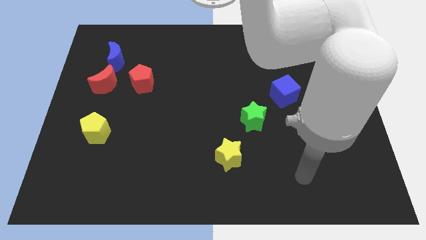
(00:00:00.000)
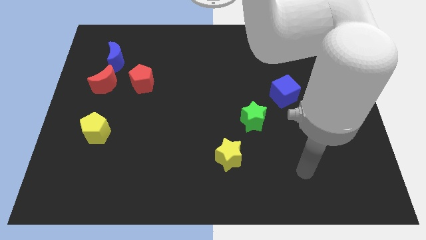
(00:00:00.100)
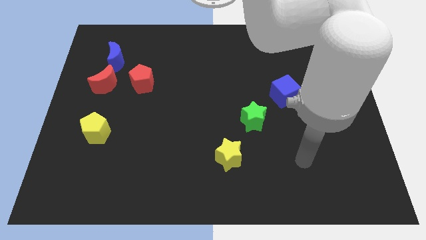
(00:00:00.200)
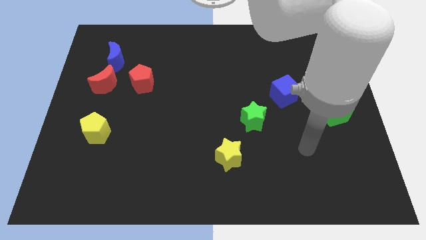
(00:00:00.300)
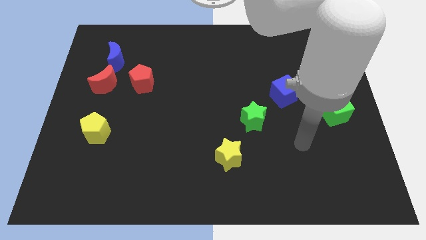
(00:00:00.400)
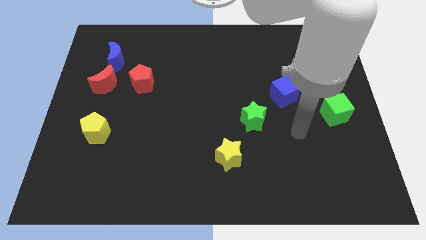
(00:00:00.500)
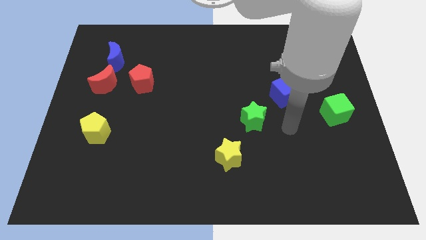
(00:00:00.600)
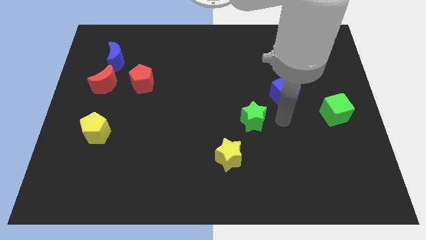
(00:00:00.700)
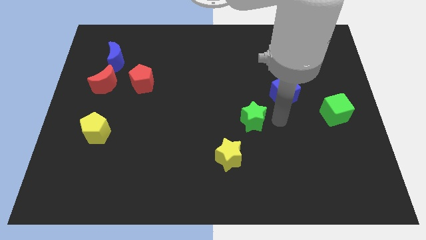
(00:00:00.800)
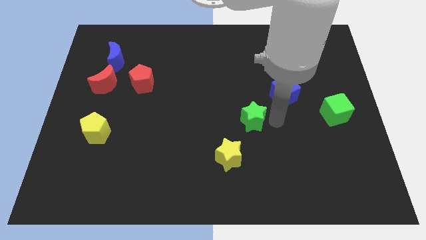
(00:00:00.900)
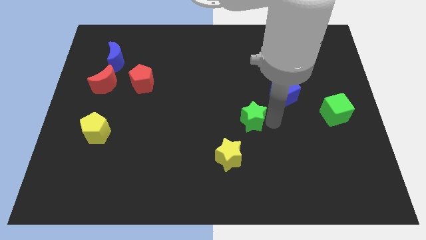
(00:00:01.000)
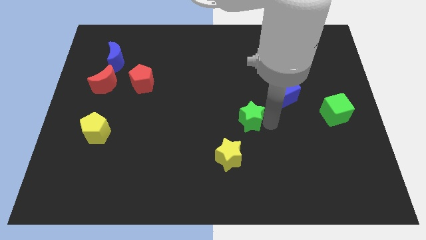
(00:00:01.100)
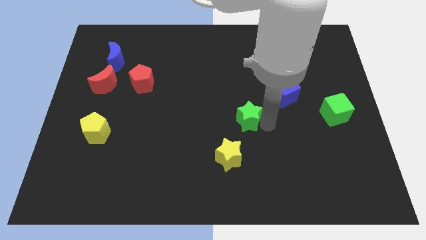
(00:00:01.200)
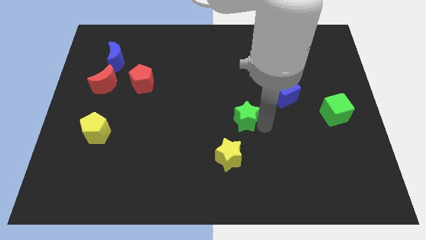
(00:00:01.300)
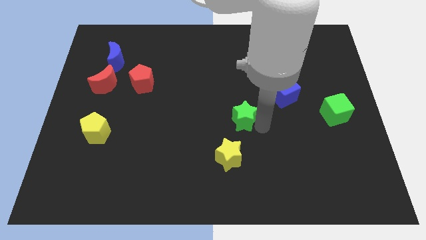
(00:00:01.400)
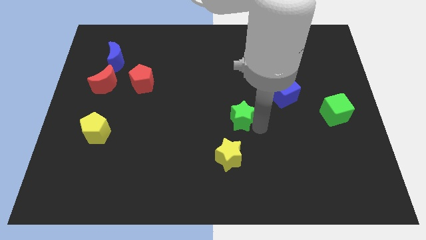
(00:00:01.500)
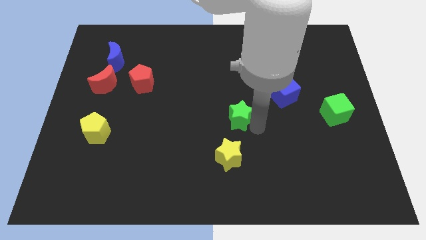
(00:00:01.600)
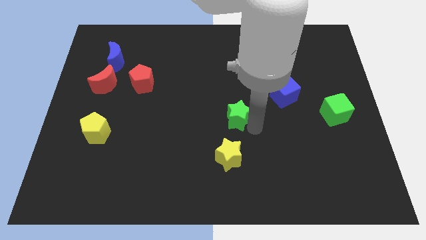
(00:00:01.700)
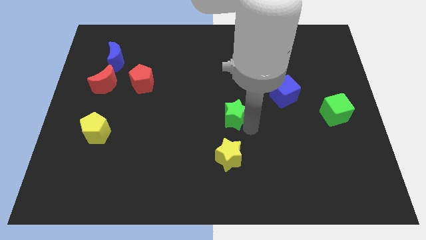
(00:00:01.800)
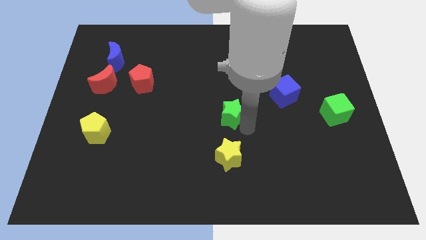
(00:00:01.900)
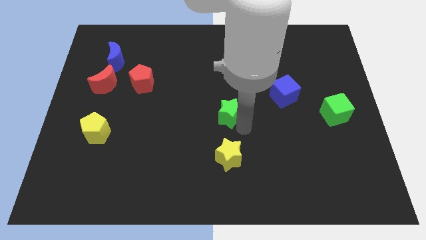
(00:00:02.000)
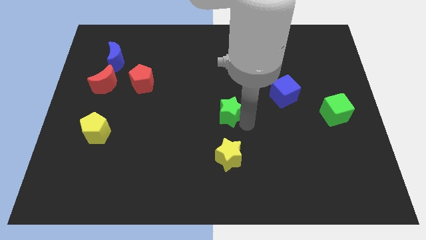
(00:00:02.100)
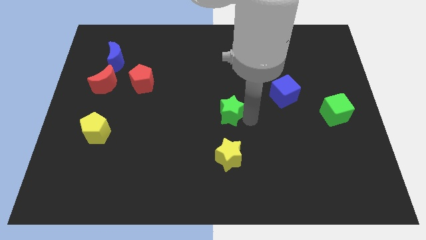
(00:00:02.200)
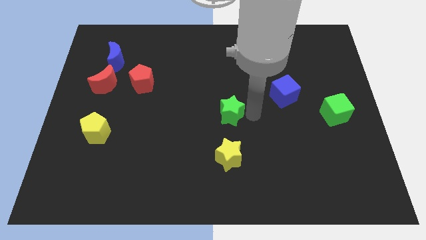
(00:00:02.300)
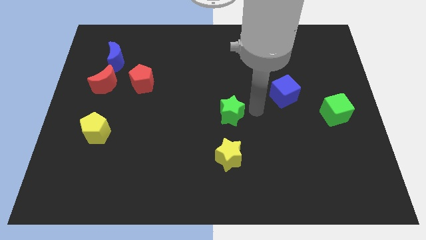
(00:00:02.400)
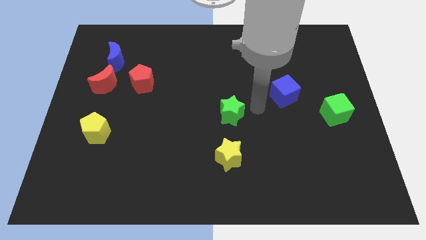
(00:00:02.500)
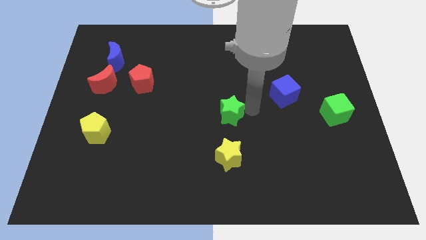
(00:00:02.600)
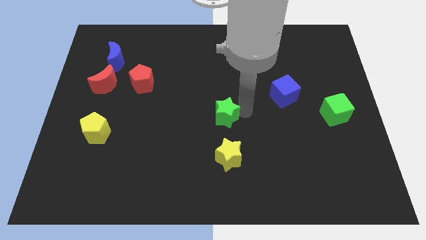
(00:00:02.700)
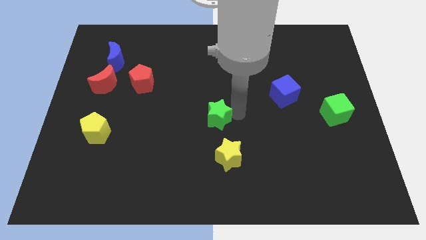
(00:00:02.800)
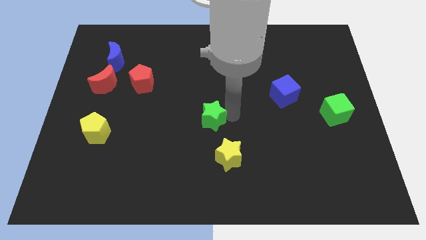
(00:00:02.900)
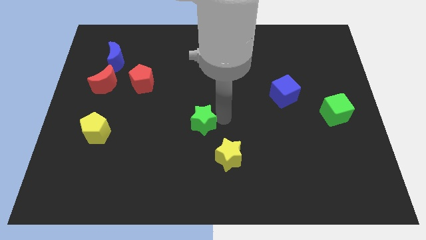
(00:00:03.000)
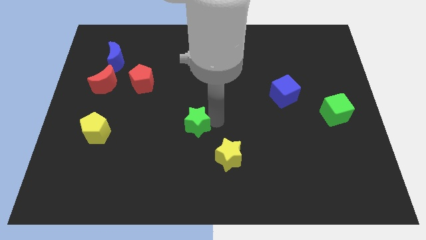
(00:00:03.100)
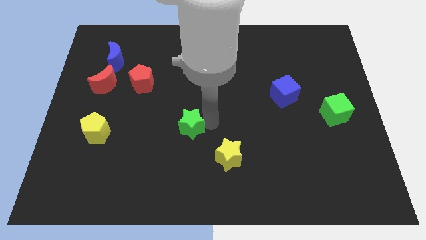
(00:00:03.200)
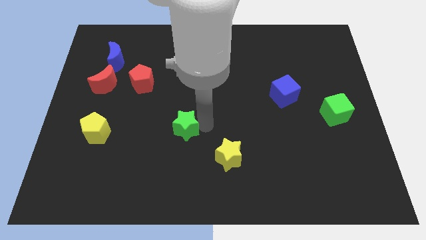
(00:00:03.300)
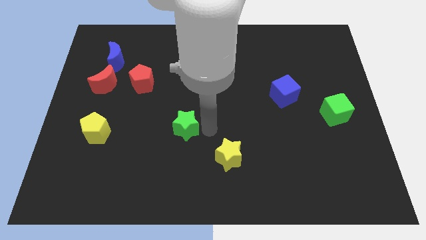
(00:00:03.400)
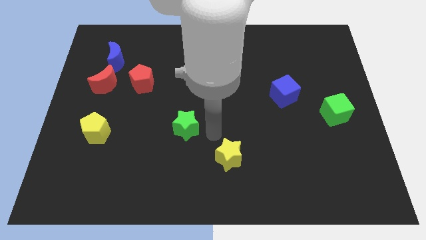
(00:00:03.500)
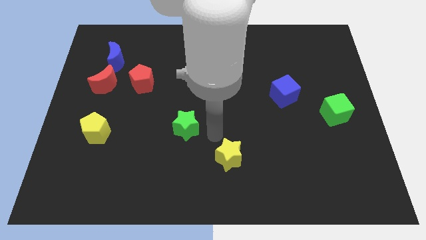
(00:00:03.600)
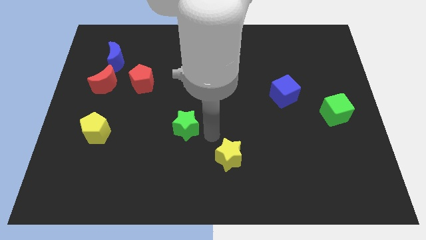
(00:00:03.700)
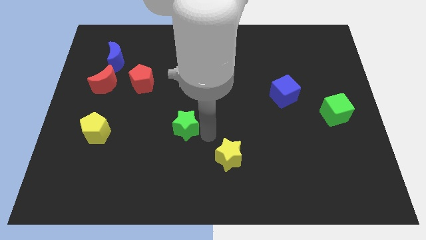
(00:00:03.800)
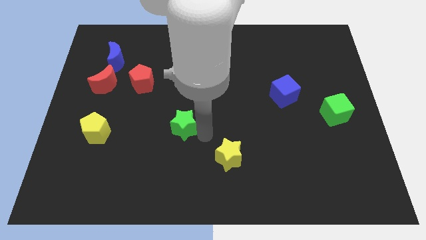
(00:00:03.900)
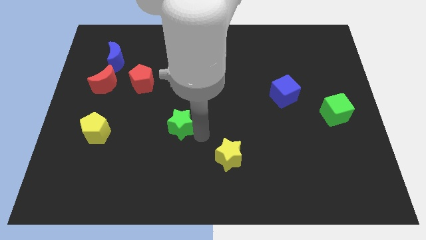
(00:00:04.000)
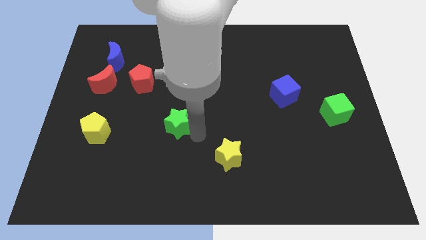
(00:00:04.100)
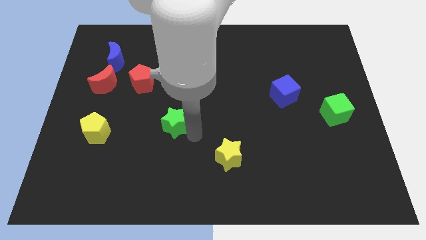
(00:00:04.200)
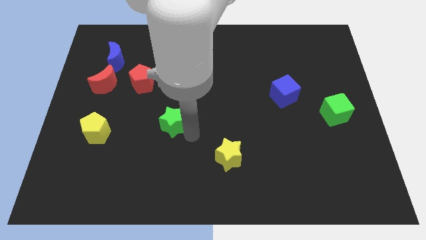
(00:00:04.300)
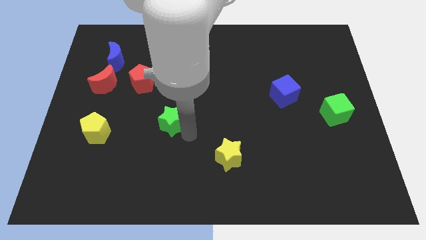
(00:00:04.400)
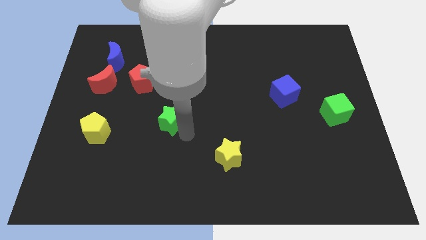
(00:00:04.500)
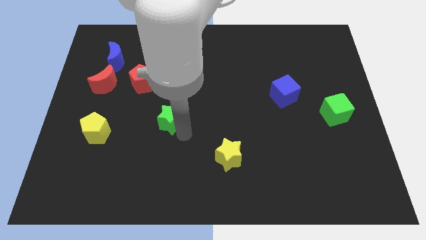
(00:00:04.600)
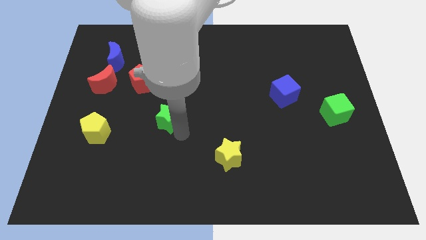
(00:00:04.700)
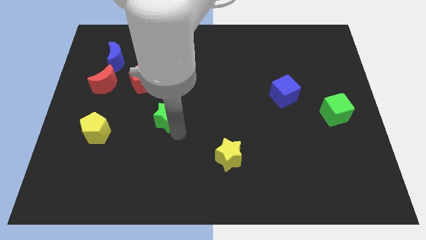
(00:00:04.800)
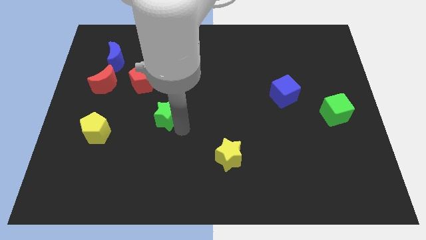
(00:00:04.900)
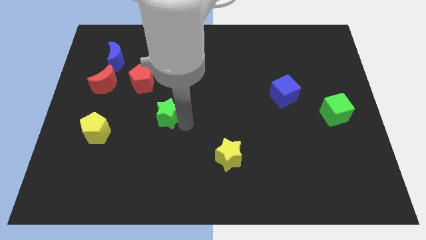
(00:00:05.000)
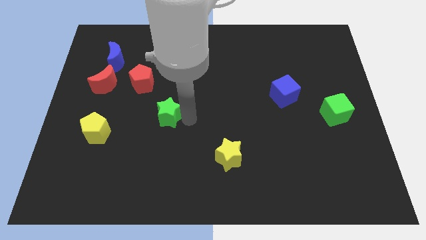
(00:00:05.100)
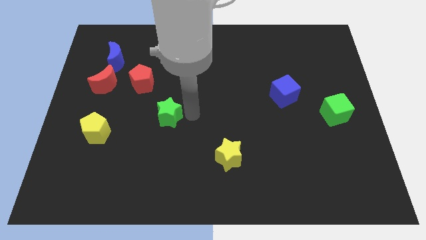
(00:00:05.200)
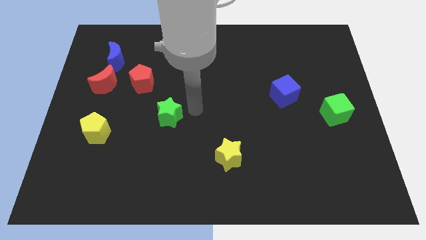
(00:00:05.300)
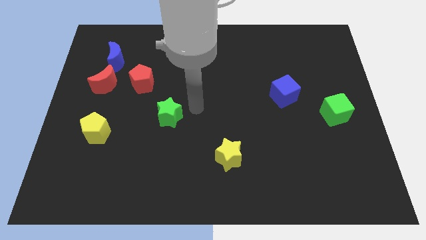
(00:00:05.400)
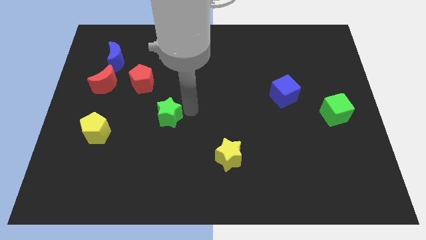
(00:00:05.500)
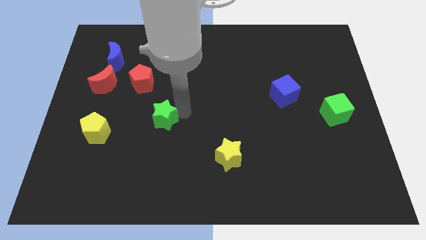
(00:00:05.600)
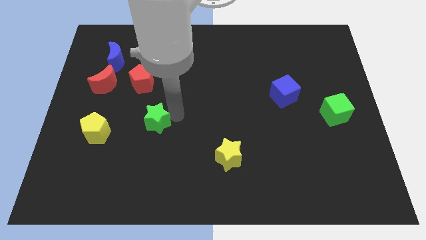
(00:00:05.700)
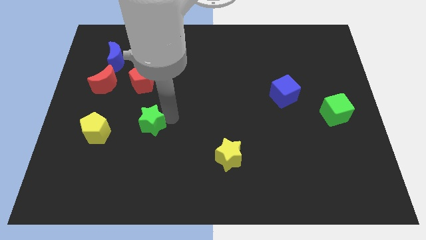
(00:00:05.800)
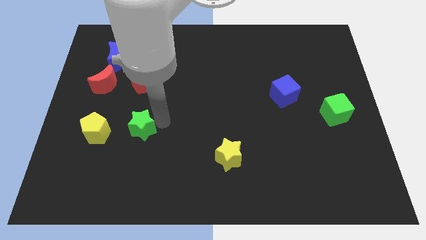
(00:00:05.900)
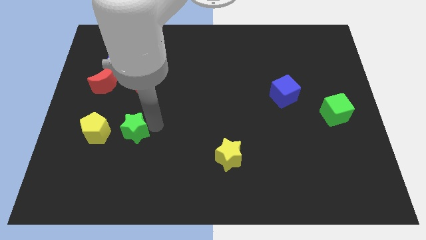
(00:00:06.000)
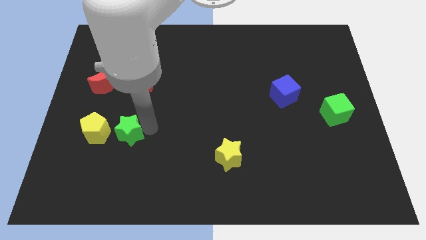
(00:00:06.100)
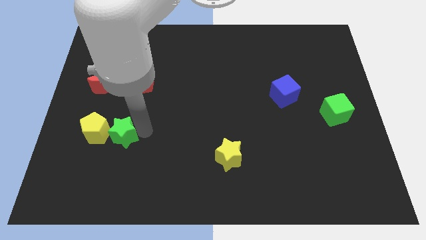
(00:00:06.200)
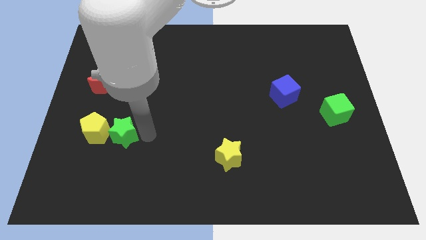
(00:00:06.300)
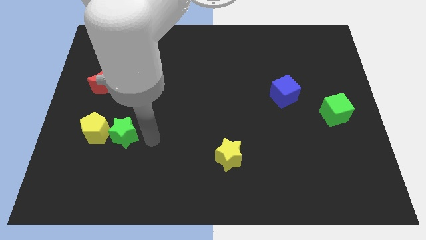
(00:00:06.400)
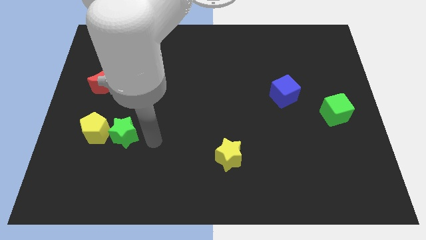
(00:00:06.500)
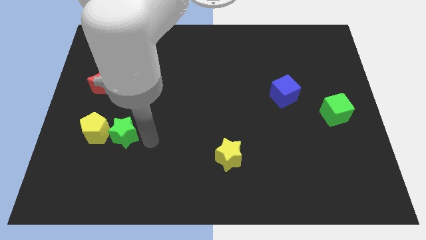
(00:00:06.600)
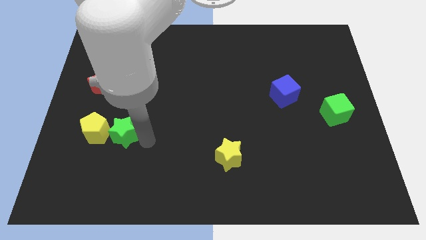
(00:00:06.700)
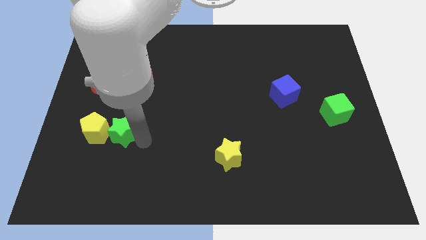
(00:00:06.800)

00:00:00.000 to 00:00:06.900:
slide the green star next to the yellow pentagon
